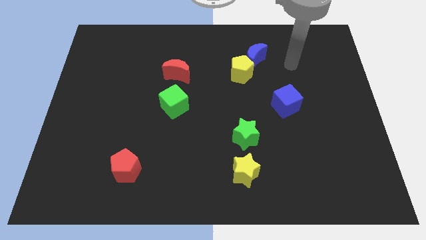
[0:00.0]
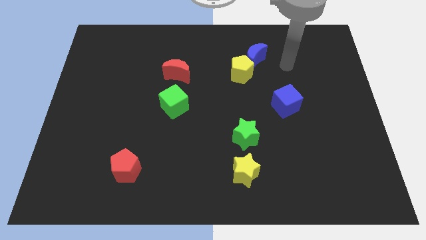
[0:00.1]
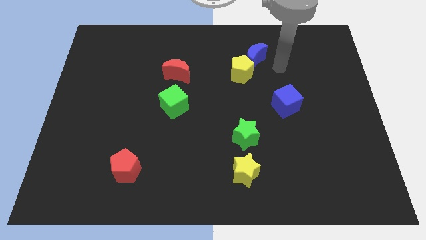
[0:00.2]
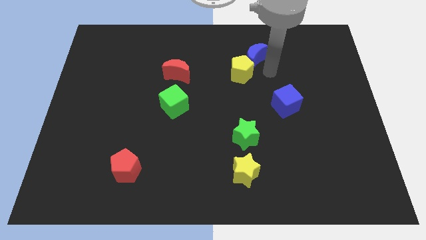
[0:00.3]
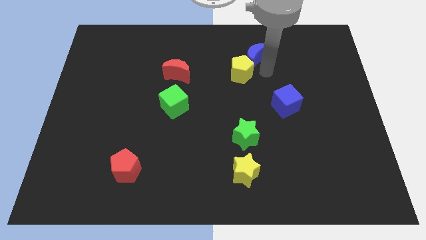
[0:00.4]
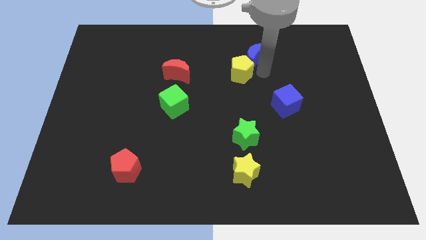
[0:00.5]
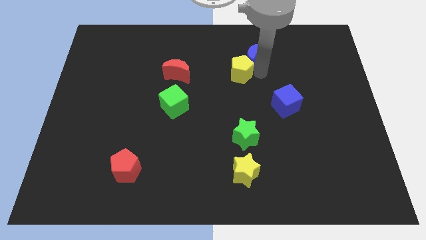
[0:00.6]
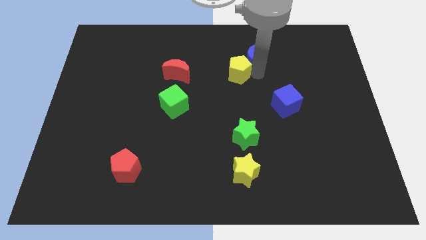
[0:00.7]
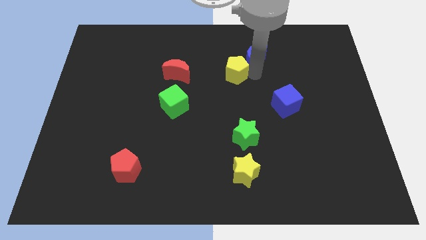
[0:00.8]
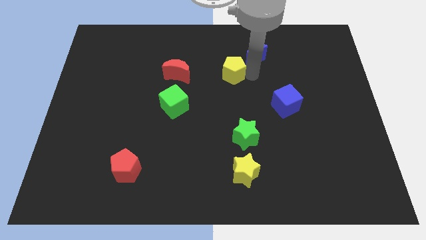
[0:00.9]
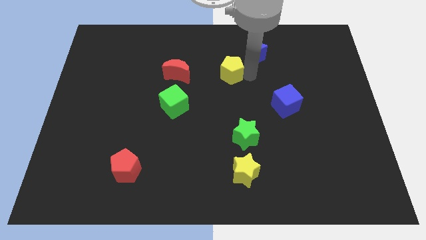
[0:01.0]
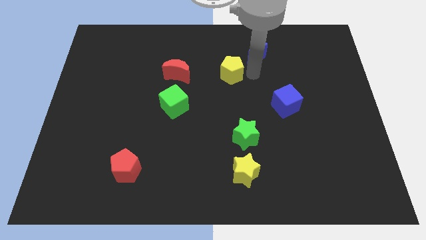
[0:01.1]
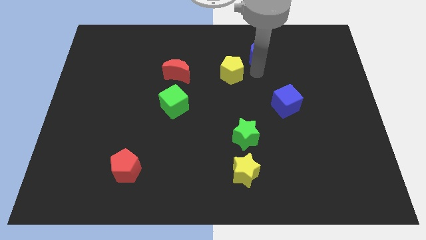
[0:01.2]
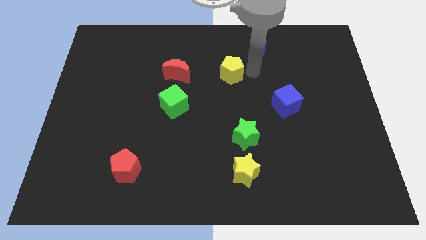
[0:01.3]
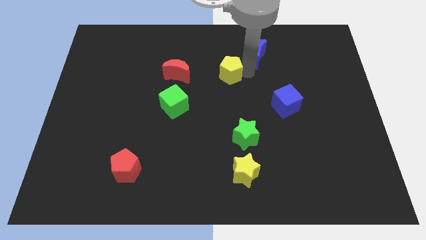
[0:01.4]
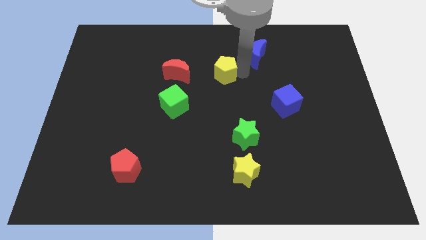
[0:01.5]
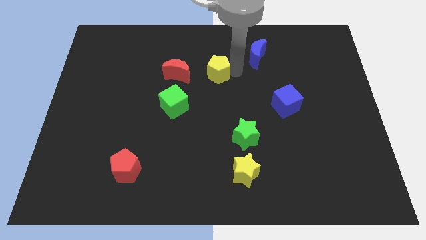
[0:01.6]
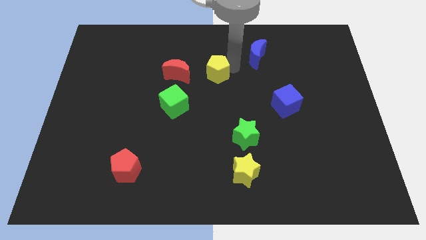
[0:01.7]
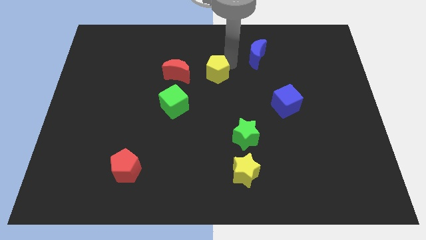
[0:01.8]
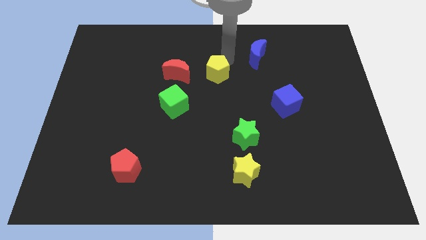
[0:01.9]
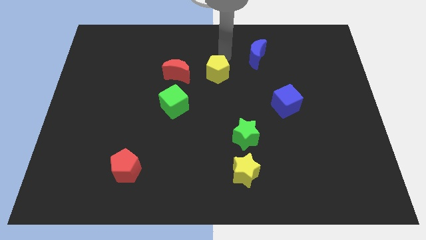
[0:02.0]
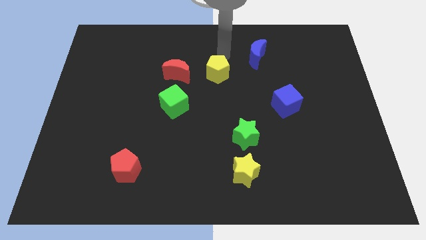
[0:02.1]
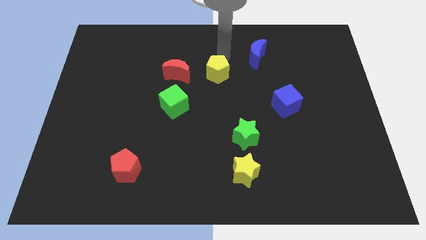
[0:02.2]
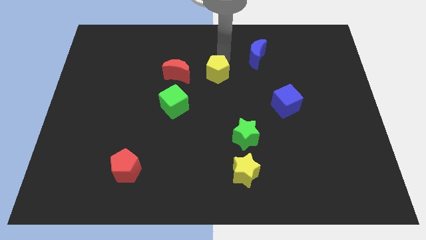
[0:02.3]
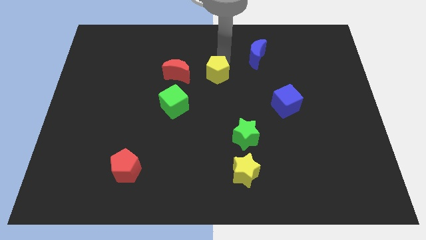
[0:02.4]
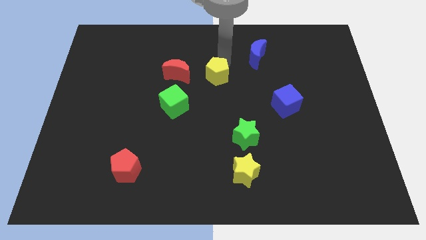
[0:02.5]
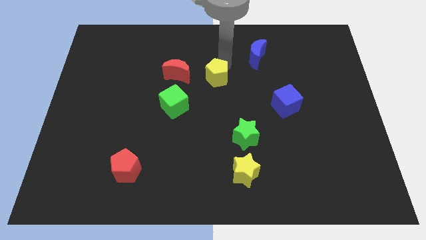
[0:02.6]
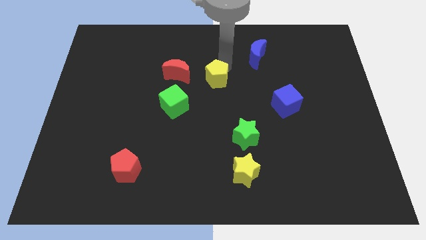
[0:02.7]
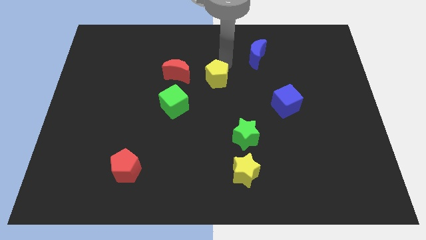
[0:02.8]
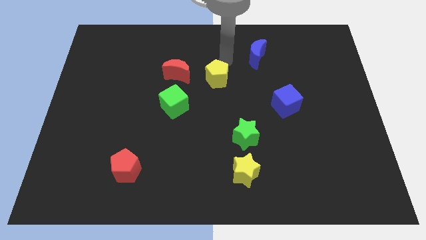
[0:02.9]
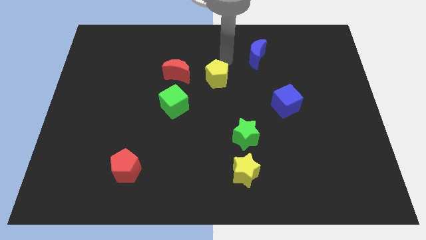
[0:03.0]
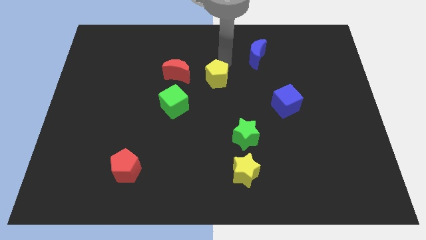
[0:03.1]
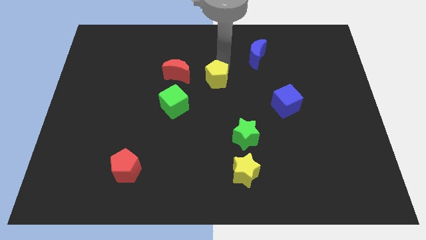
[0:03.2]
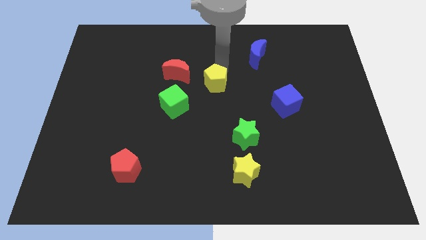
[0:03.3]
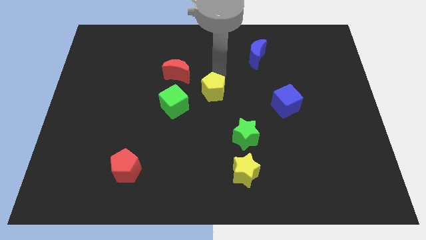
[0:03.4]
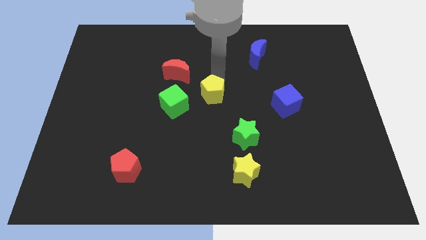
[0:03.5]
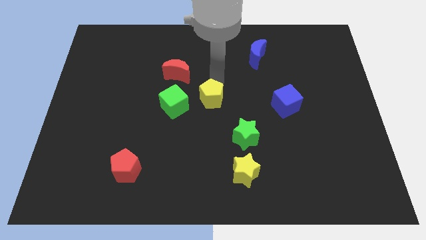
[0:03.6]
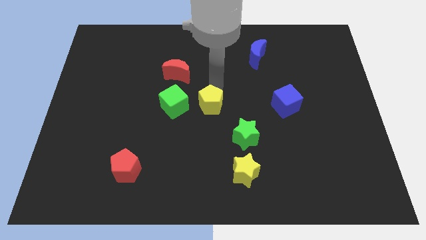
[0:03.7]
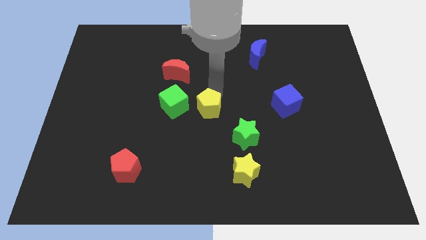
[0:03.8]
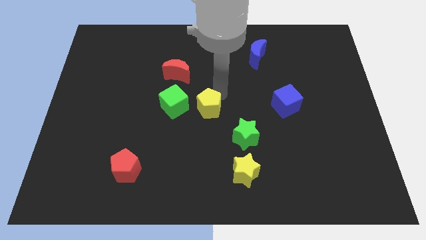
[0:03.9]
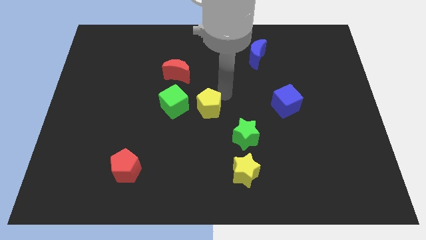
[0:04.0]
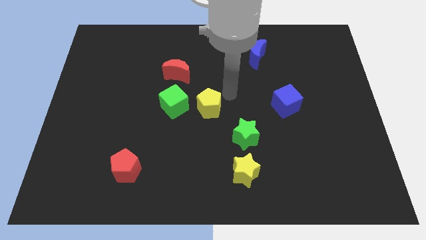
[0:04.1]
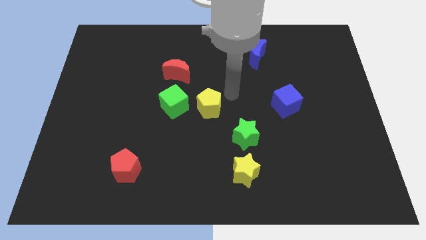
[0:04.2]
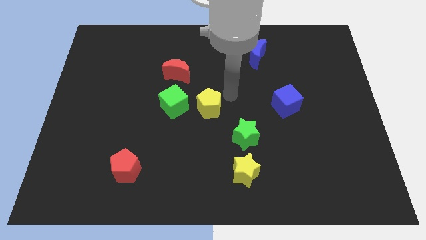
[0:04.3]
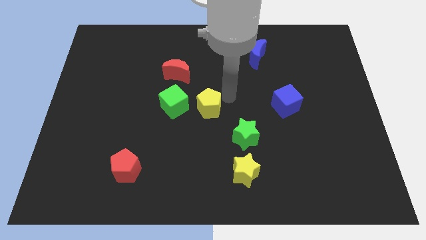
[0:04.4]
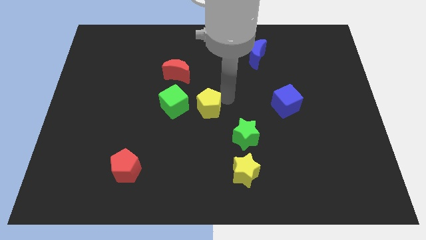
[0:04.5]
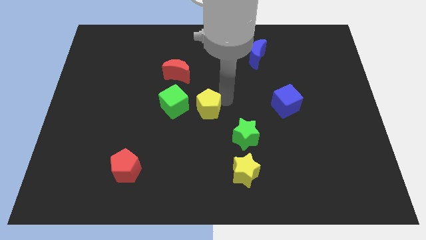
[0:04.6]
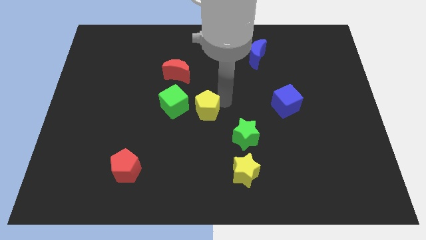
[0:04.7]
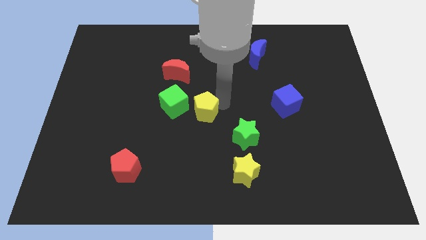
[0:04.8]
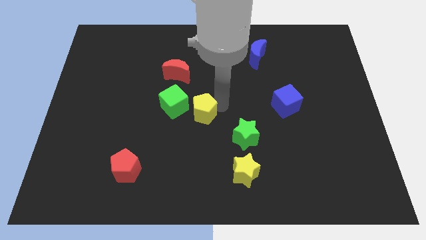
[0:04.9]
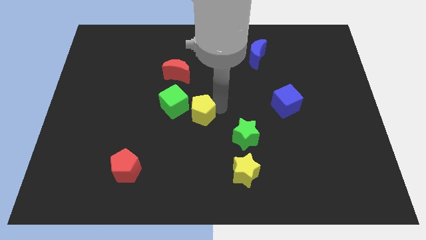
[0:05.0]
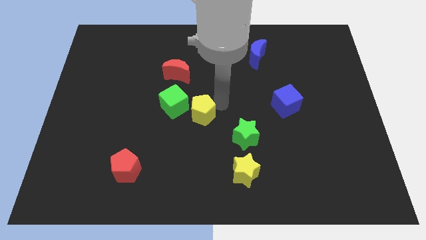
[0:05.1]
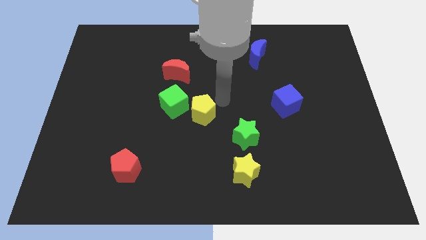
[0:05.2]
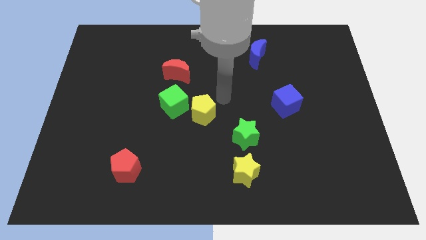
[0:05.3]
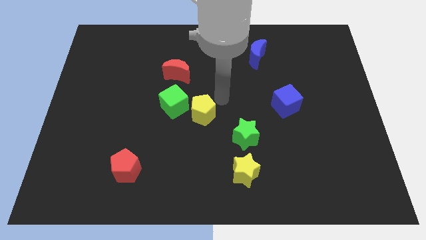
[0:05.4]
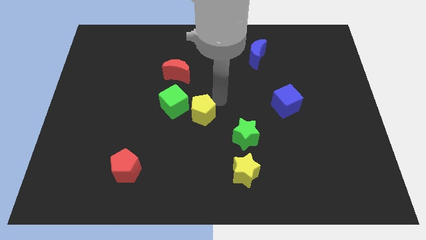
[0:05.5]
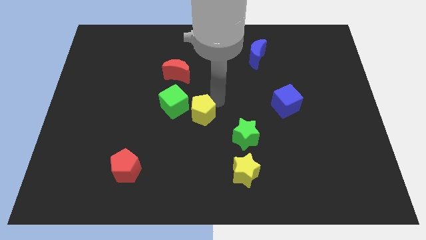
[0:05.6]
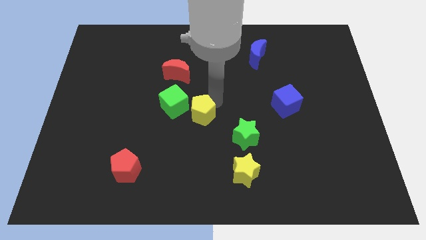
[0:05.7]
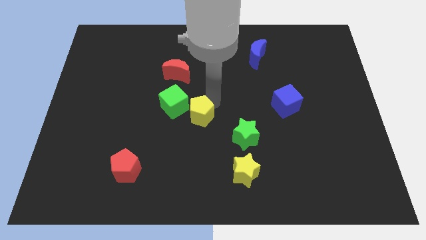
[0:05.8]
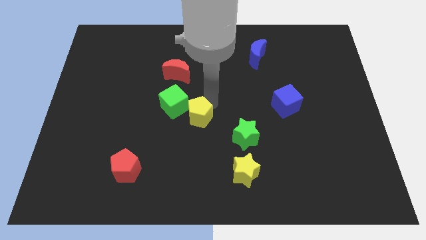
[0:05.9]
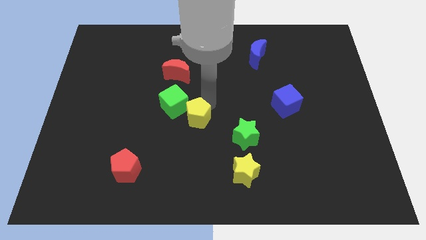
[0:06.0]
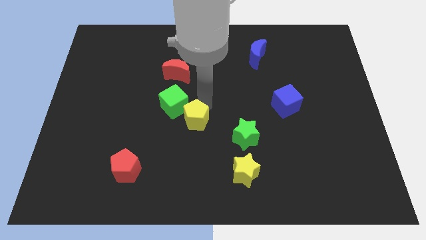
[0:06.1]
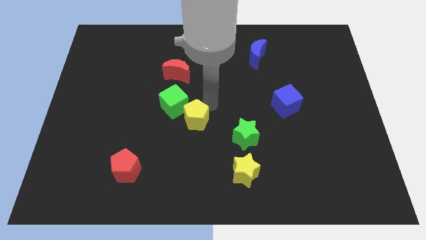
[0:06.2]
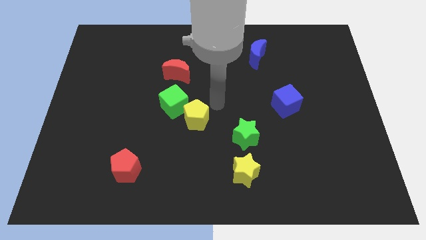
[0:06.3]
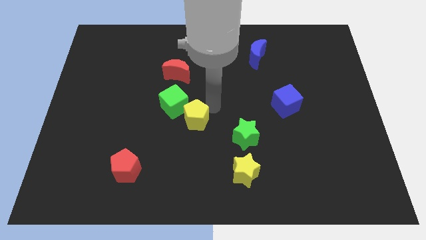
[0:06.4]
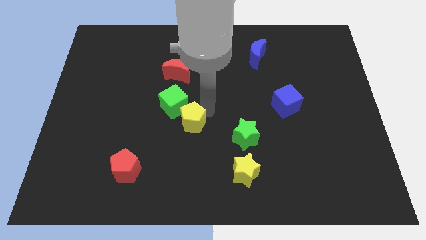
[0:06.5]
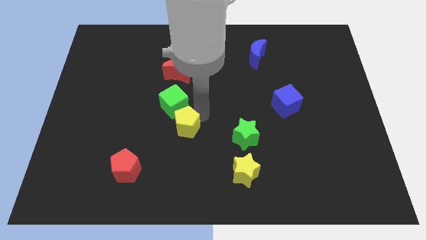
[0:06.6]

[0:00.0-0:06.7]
move the yellow pentagon downwards and then to the left

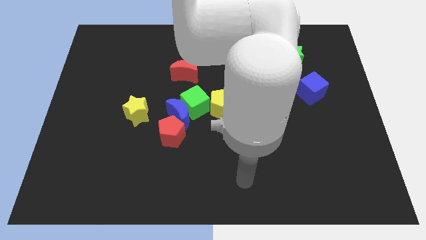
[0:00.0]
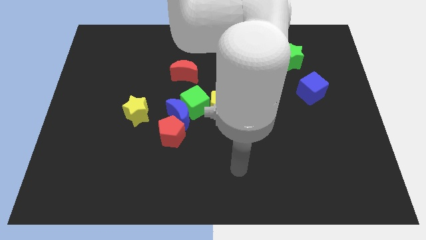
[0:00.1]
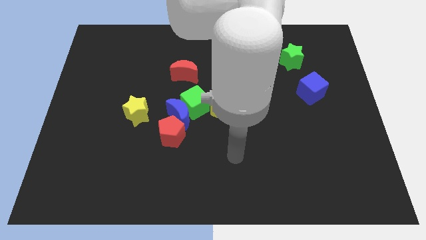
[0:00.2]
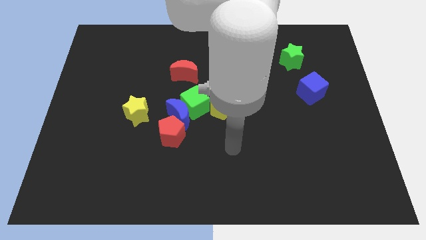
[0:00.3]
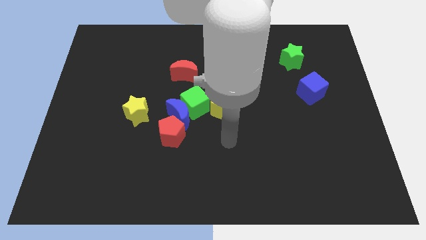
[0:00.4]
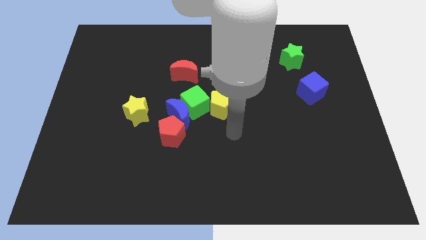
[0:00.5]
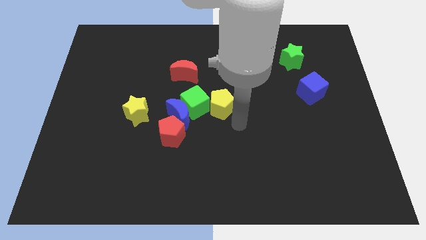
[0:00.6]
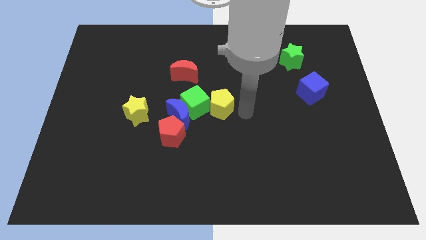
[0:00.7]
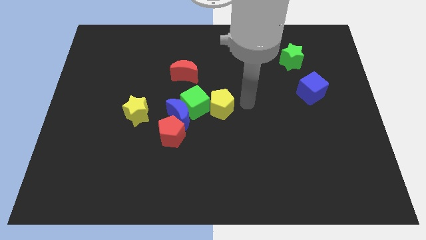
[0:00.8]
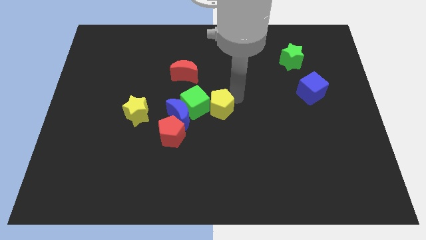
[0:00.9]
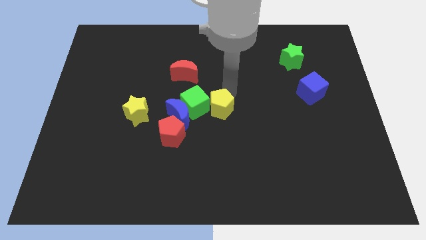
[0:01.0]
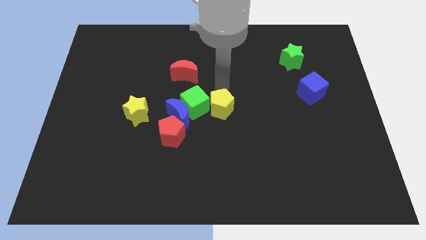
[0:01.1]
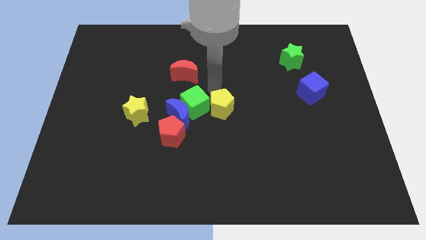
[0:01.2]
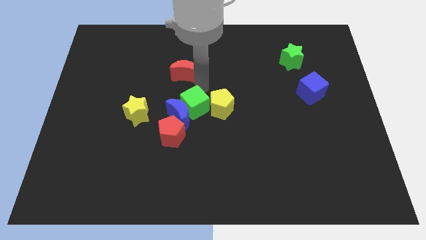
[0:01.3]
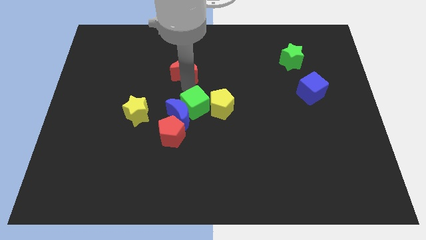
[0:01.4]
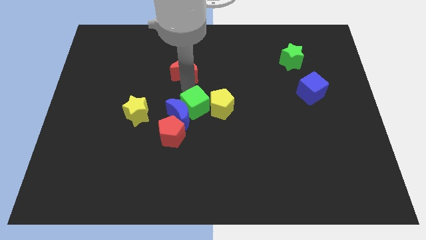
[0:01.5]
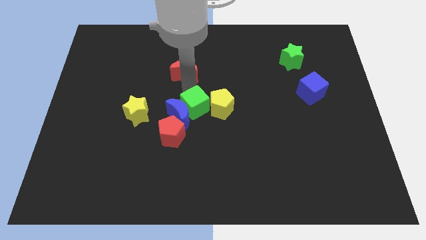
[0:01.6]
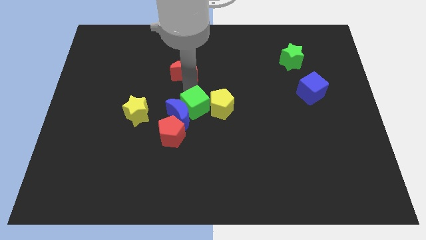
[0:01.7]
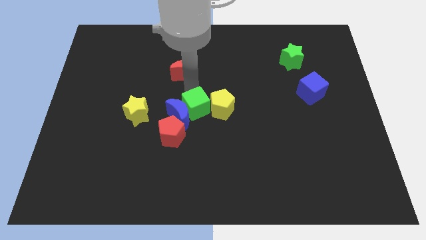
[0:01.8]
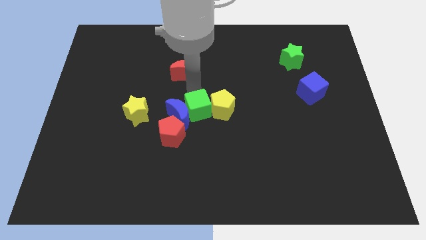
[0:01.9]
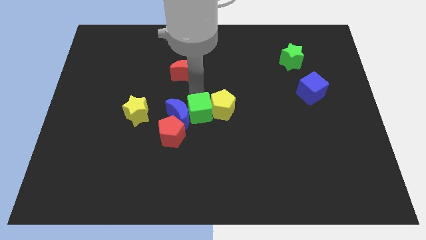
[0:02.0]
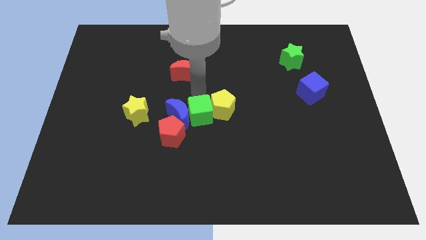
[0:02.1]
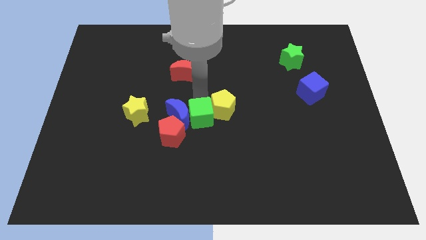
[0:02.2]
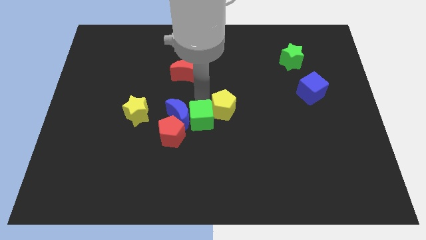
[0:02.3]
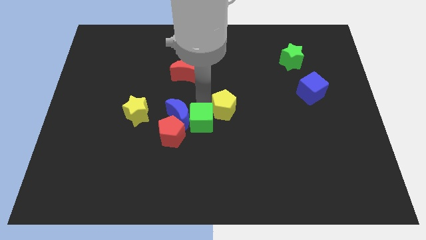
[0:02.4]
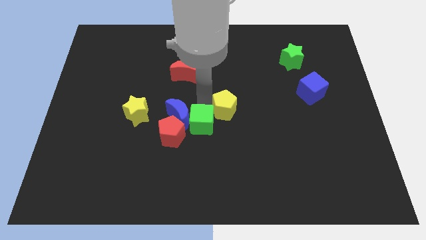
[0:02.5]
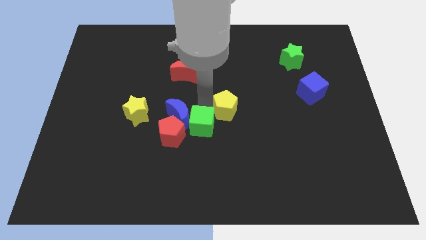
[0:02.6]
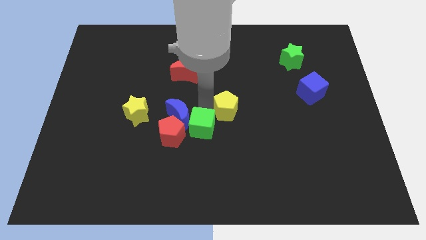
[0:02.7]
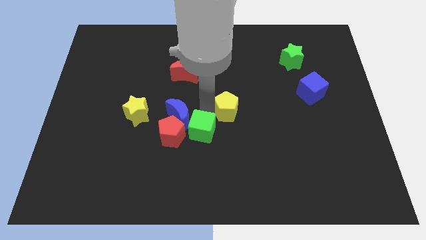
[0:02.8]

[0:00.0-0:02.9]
slightly slide the green cube downwards
